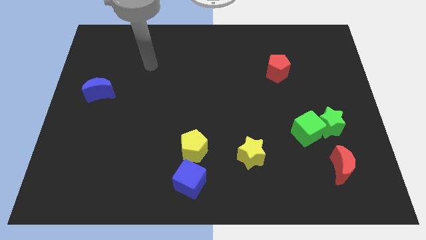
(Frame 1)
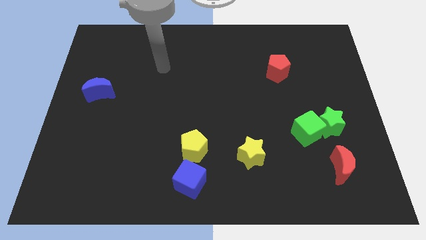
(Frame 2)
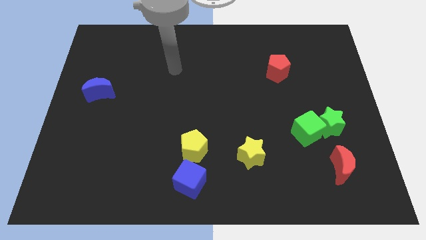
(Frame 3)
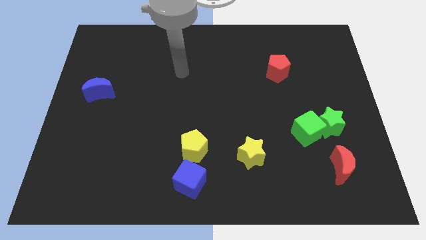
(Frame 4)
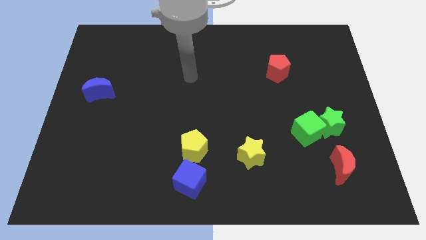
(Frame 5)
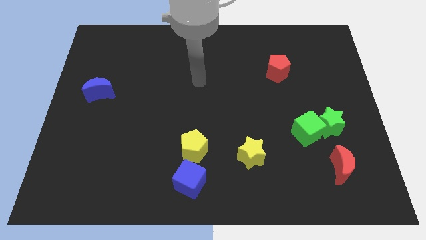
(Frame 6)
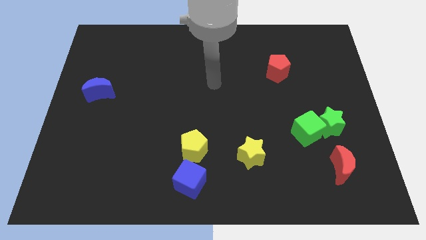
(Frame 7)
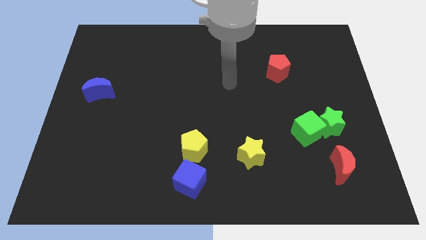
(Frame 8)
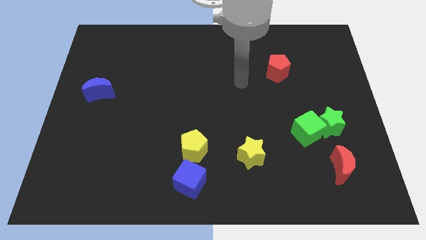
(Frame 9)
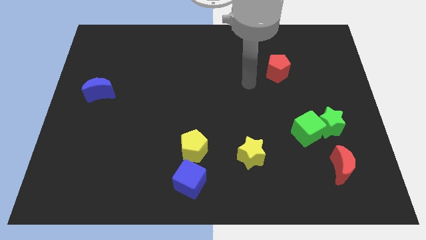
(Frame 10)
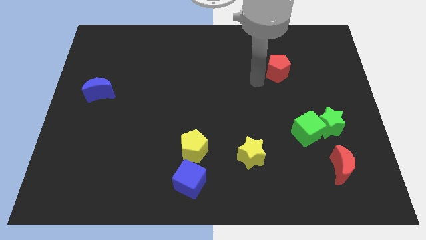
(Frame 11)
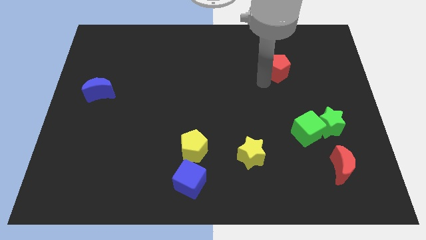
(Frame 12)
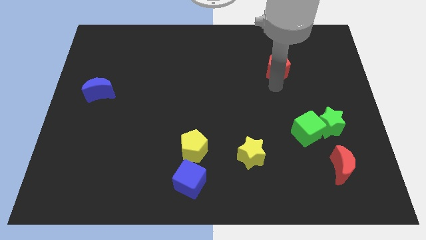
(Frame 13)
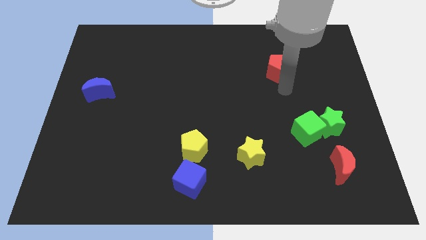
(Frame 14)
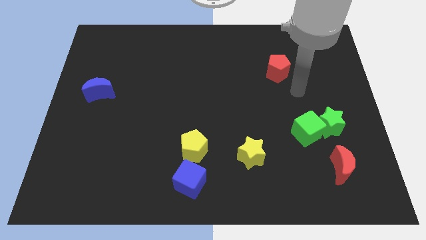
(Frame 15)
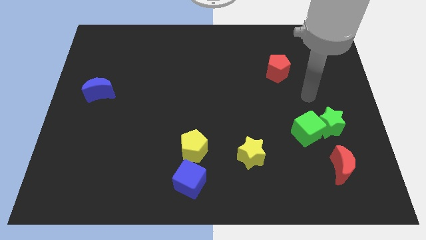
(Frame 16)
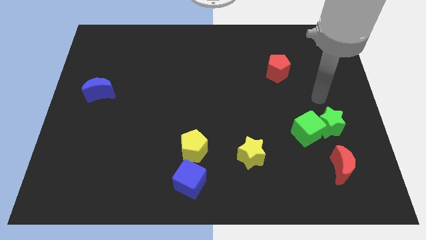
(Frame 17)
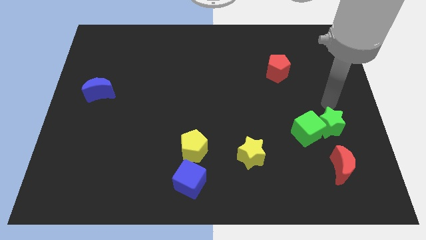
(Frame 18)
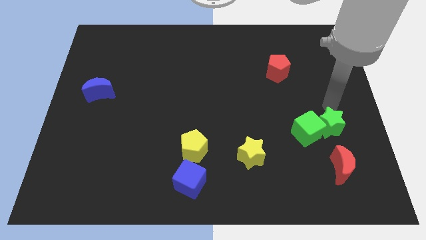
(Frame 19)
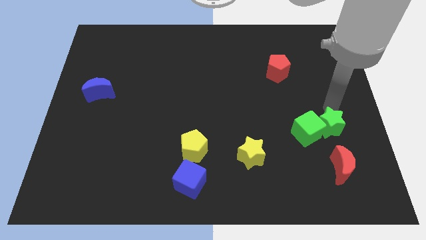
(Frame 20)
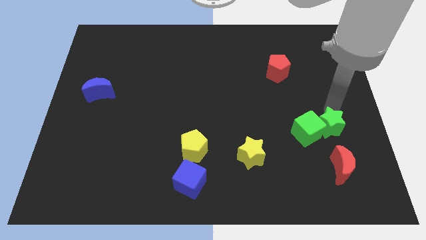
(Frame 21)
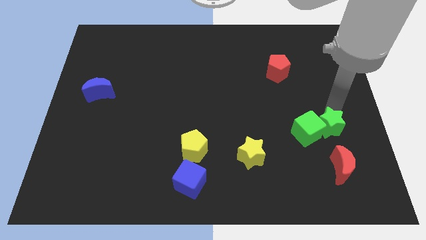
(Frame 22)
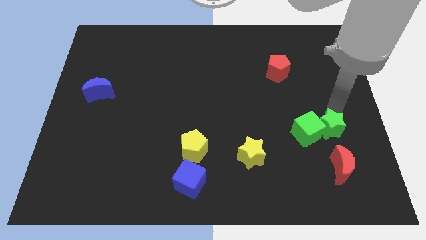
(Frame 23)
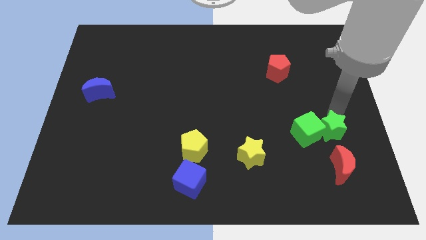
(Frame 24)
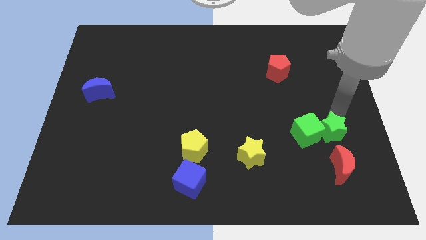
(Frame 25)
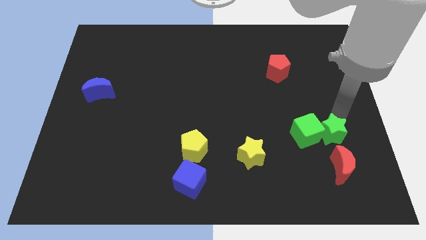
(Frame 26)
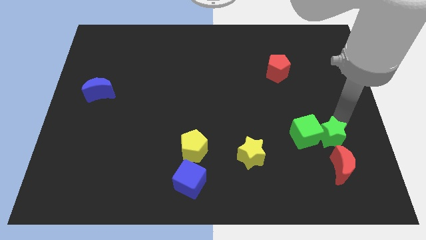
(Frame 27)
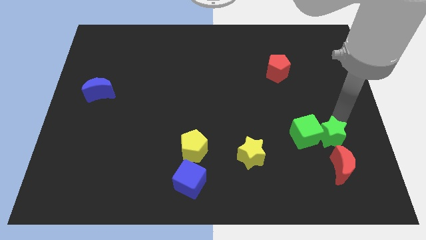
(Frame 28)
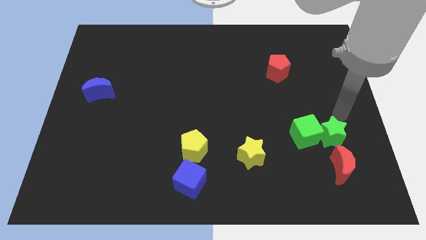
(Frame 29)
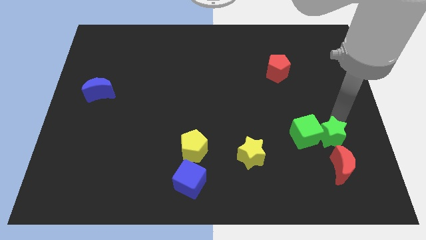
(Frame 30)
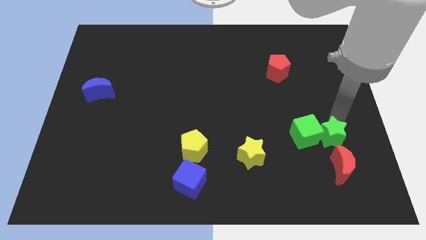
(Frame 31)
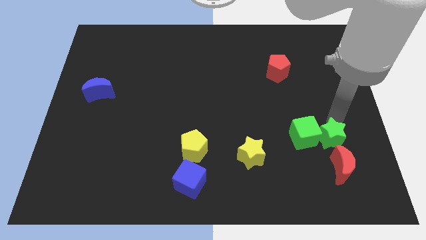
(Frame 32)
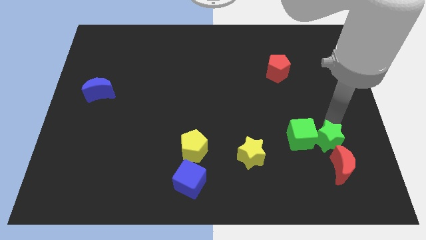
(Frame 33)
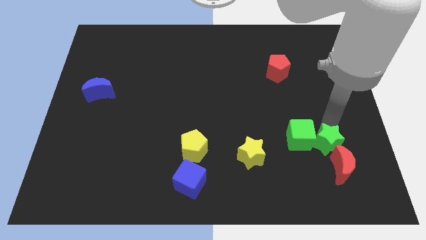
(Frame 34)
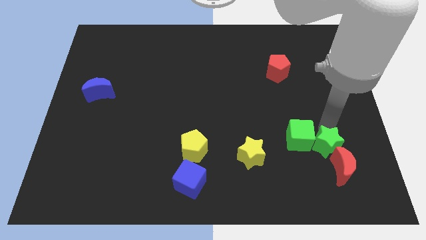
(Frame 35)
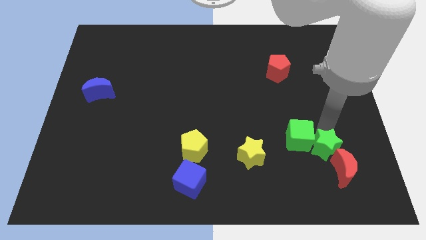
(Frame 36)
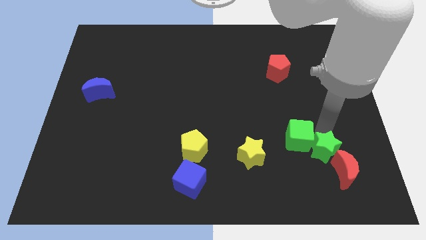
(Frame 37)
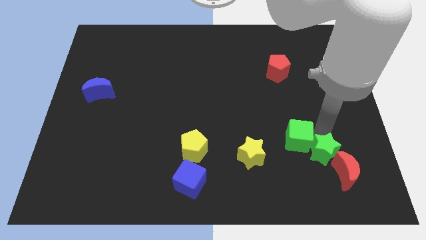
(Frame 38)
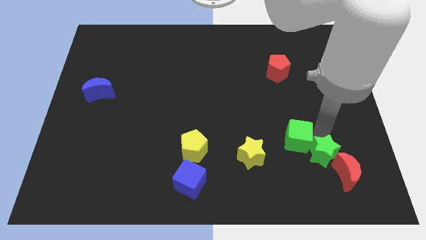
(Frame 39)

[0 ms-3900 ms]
move the green star a little down and to the left diagonally

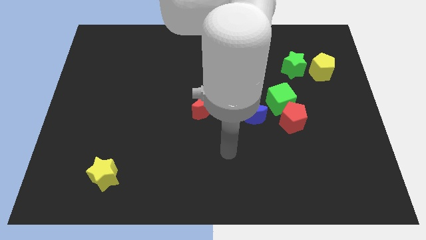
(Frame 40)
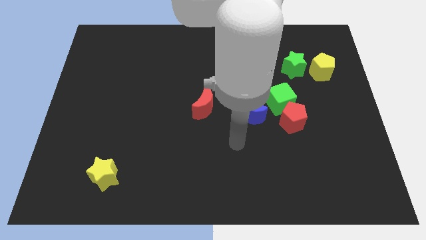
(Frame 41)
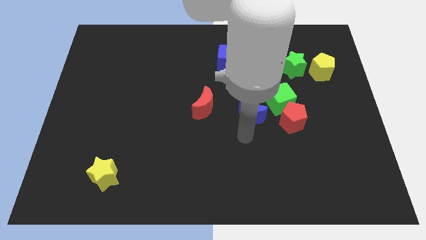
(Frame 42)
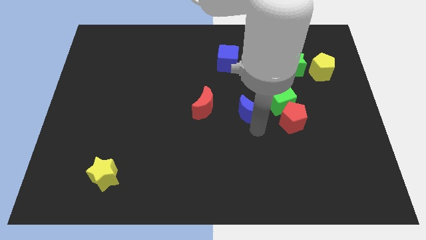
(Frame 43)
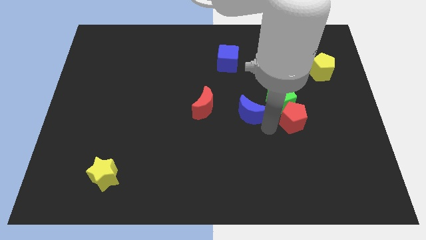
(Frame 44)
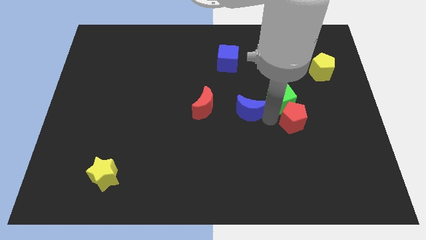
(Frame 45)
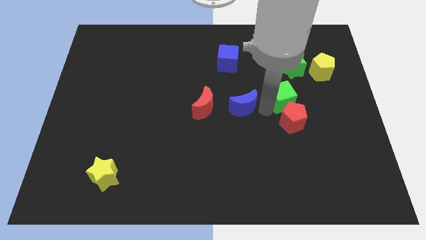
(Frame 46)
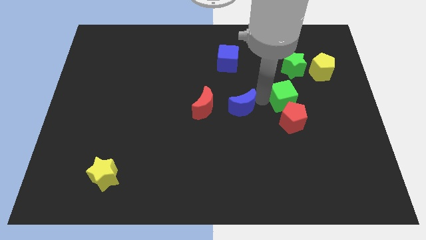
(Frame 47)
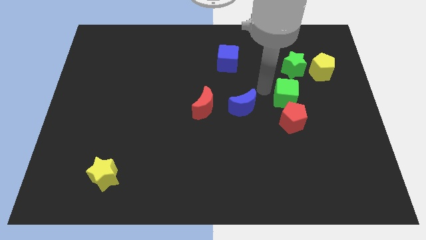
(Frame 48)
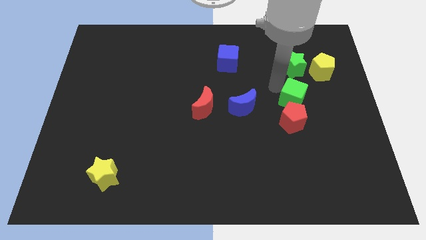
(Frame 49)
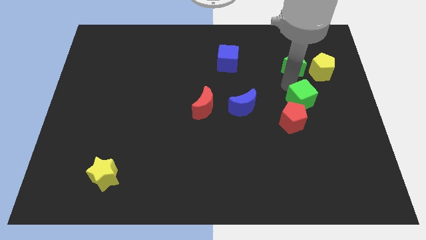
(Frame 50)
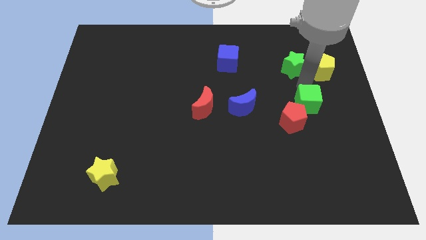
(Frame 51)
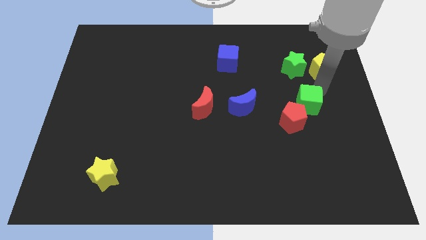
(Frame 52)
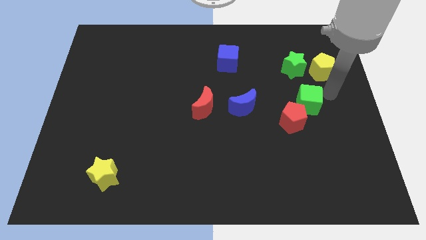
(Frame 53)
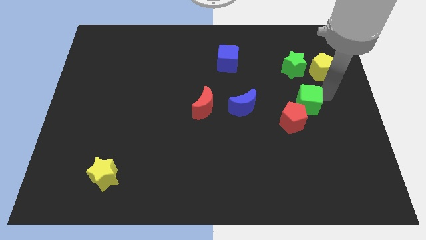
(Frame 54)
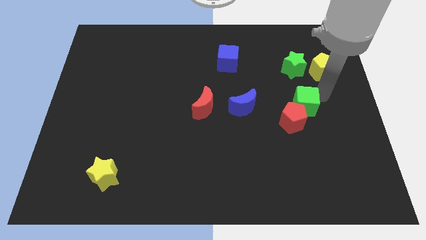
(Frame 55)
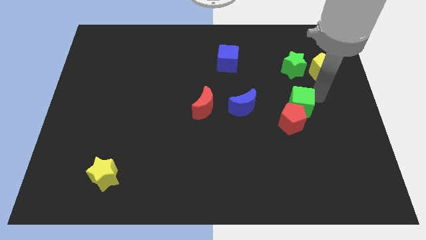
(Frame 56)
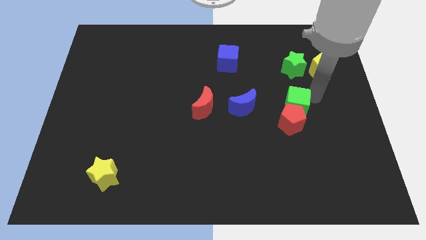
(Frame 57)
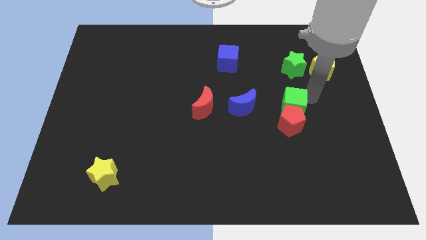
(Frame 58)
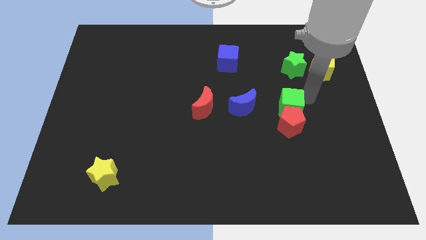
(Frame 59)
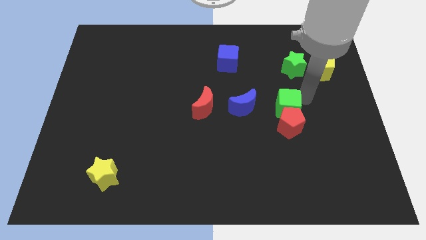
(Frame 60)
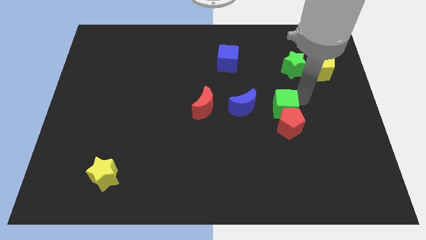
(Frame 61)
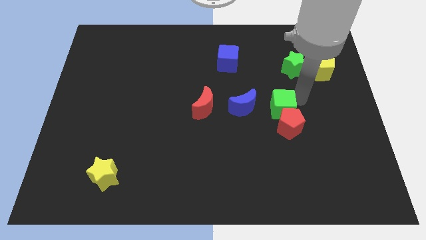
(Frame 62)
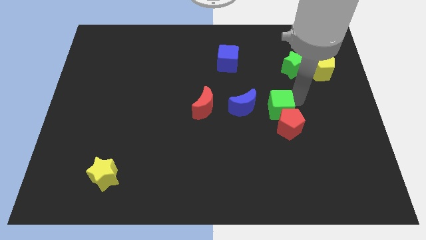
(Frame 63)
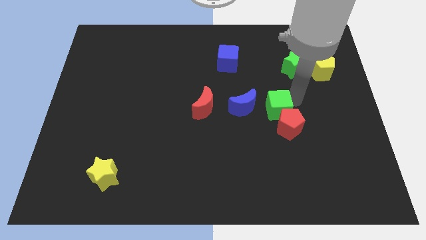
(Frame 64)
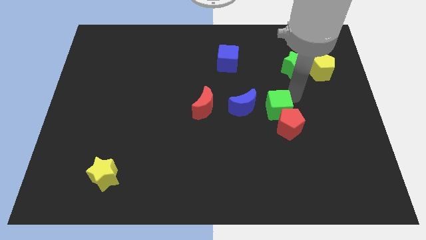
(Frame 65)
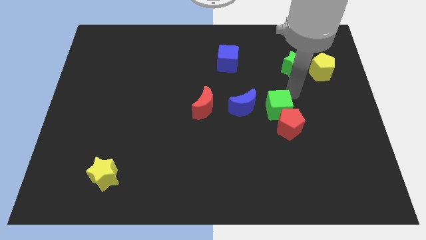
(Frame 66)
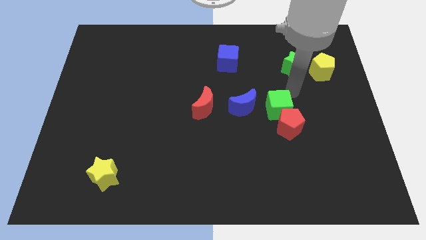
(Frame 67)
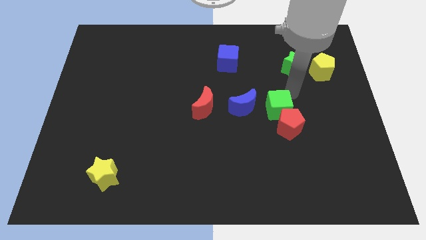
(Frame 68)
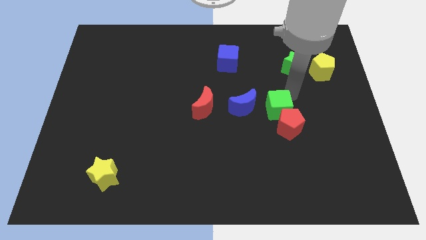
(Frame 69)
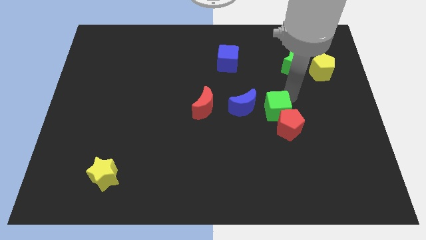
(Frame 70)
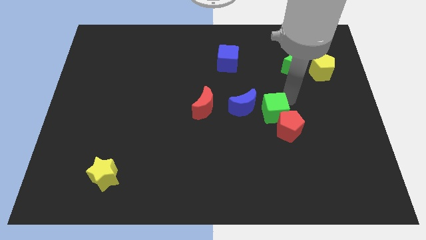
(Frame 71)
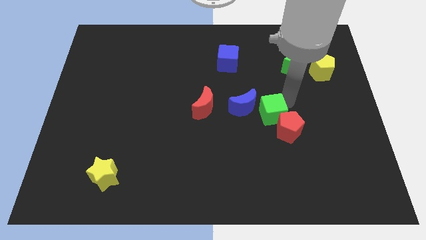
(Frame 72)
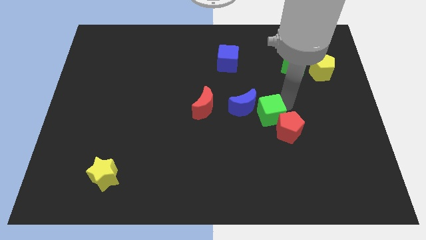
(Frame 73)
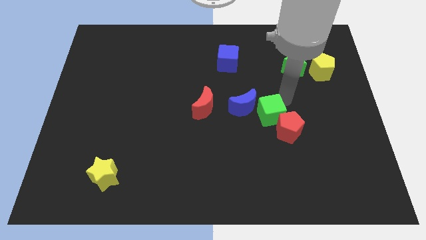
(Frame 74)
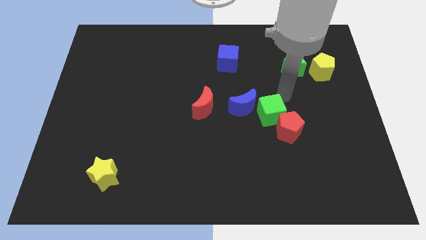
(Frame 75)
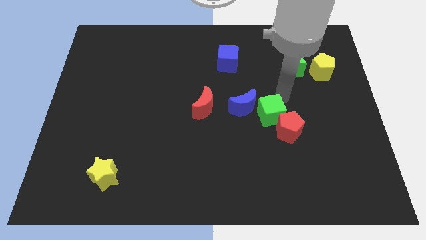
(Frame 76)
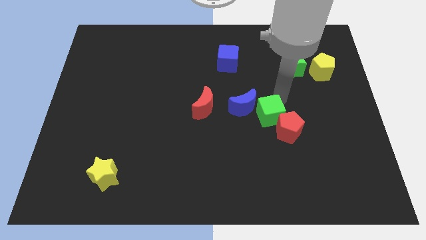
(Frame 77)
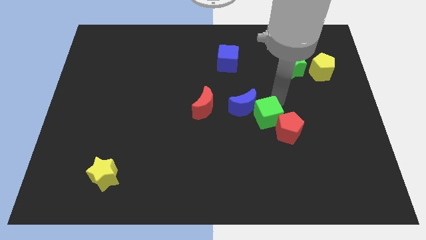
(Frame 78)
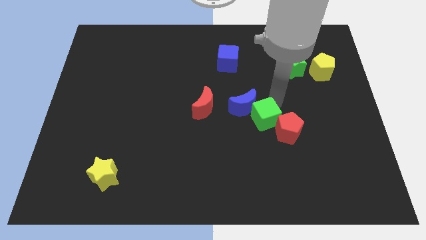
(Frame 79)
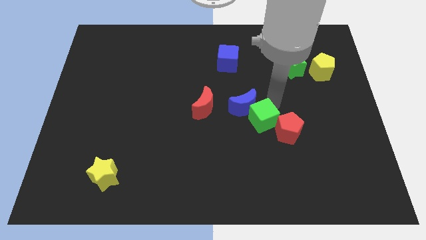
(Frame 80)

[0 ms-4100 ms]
slide the green cube diagonally down and to the left somewhat

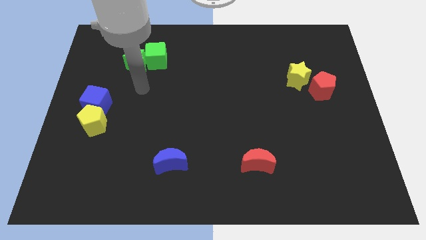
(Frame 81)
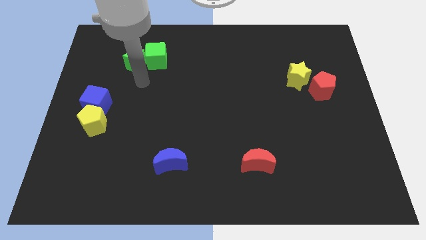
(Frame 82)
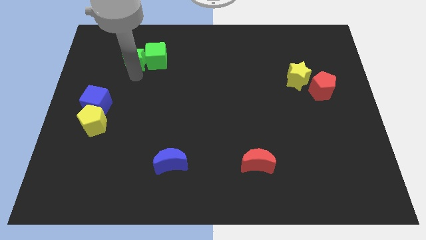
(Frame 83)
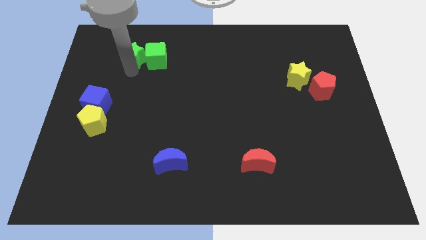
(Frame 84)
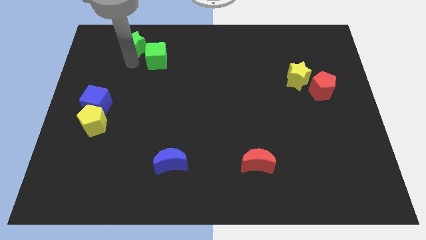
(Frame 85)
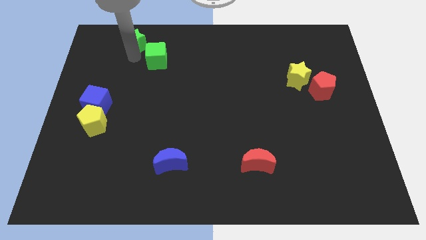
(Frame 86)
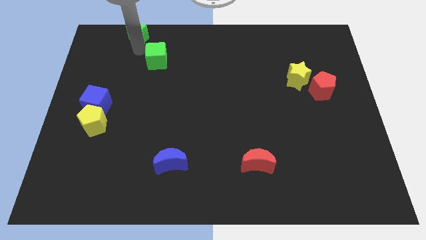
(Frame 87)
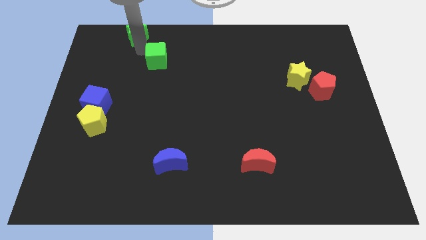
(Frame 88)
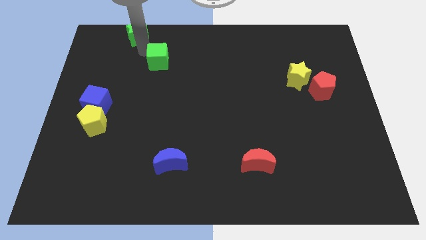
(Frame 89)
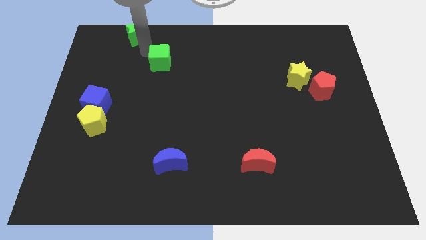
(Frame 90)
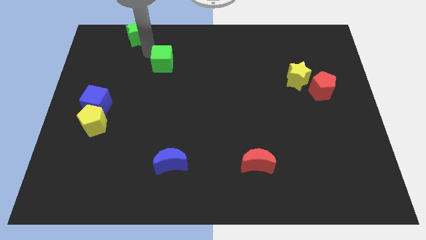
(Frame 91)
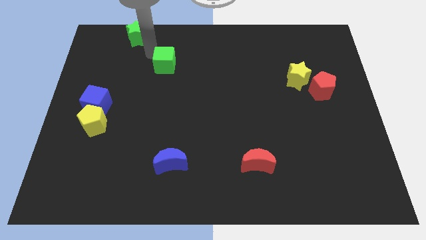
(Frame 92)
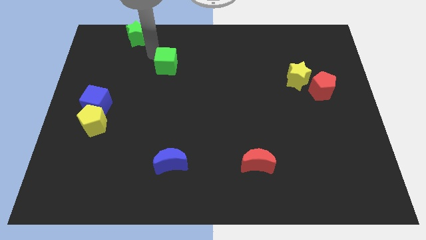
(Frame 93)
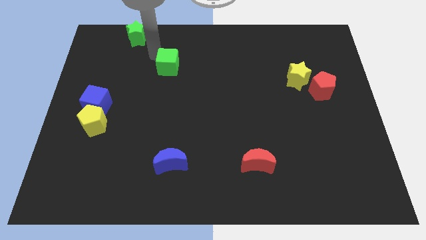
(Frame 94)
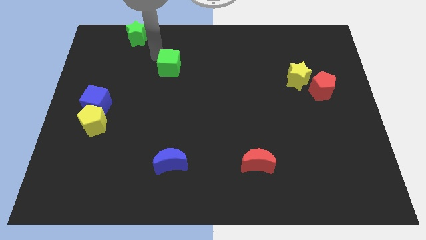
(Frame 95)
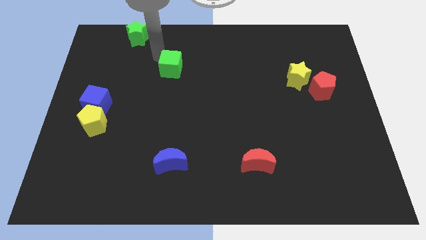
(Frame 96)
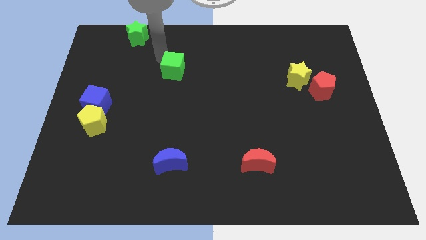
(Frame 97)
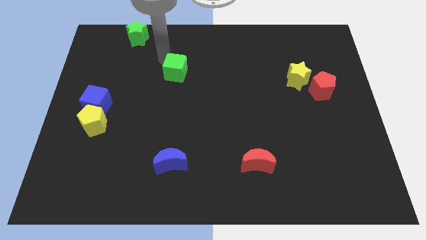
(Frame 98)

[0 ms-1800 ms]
slightly move the green cube downwards and to the right diagonally
